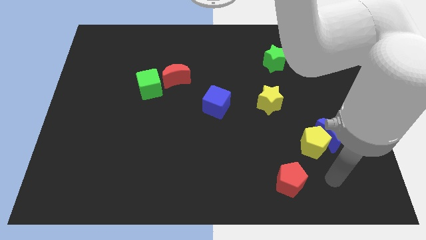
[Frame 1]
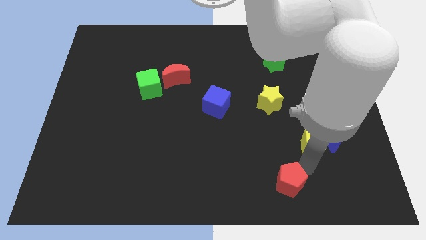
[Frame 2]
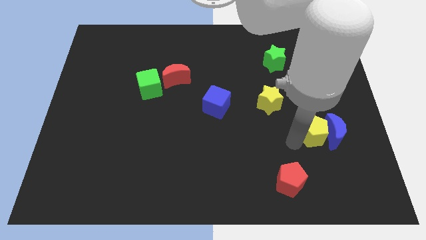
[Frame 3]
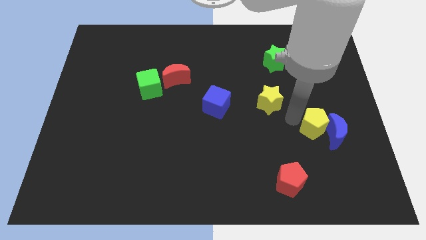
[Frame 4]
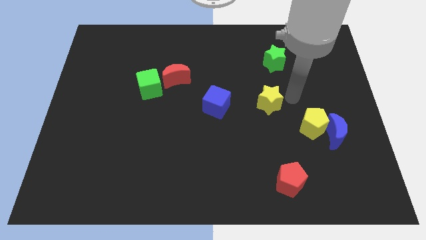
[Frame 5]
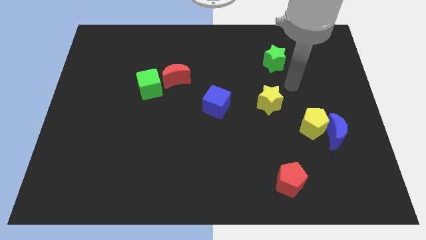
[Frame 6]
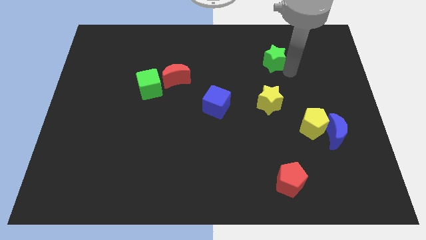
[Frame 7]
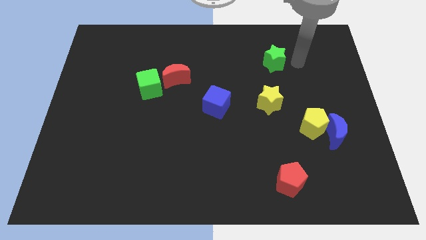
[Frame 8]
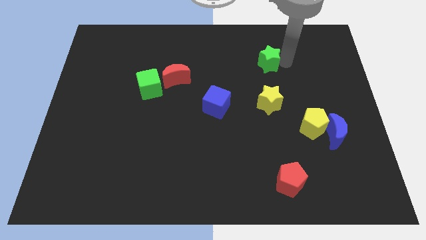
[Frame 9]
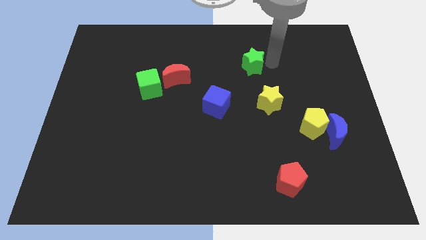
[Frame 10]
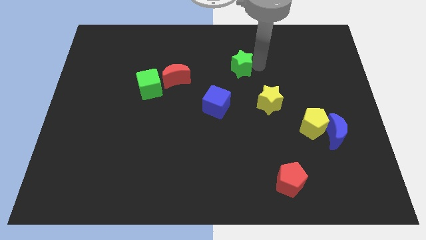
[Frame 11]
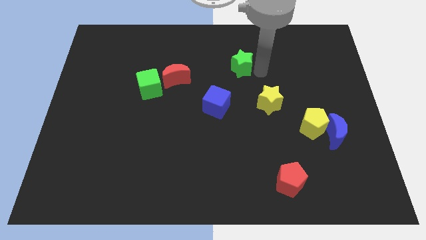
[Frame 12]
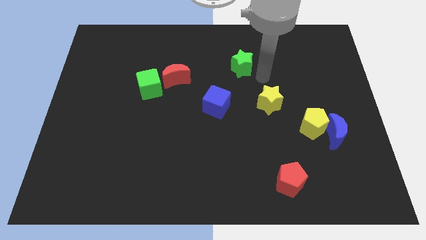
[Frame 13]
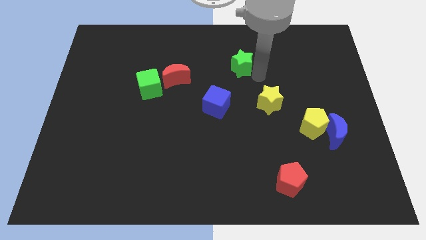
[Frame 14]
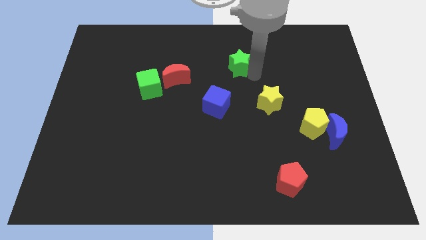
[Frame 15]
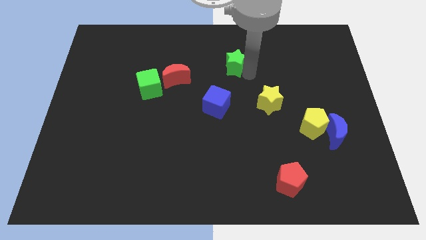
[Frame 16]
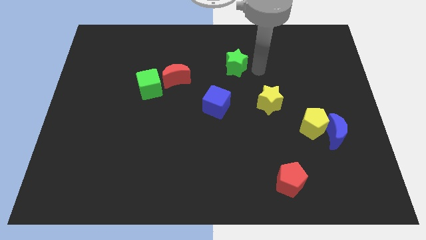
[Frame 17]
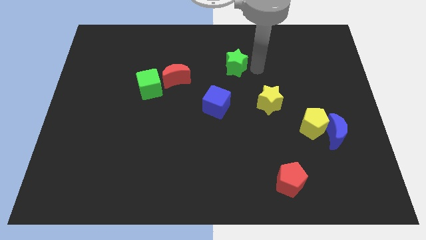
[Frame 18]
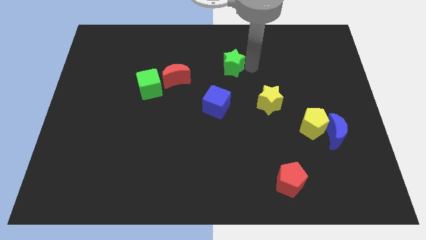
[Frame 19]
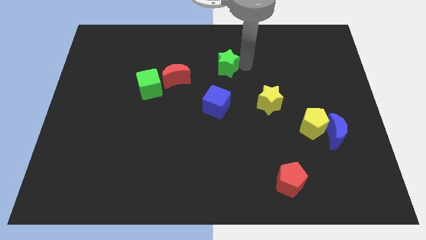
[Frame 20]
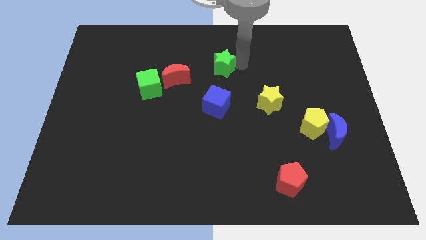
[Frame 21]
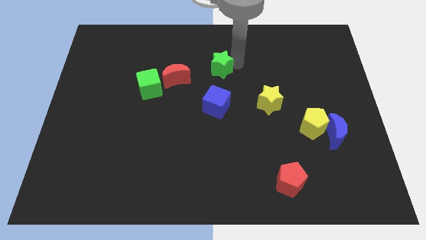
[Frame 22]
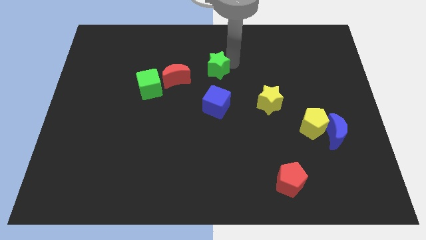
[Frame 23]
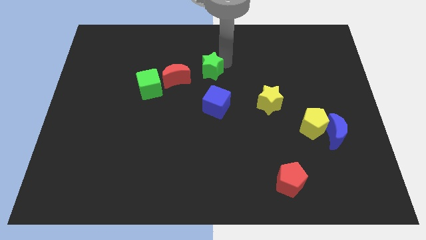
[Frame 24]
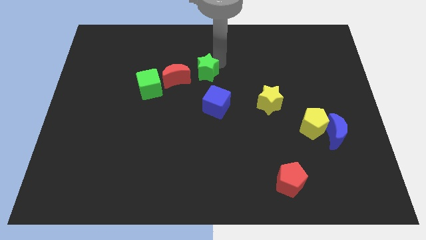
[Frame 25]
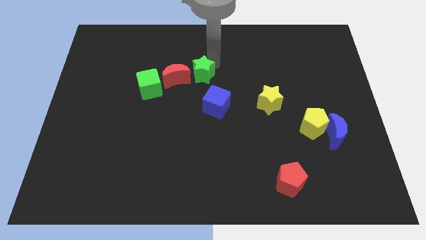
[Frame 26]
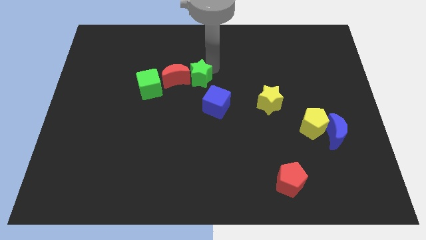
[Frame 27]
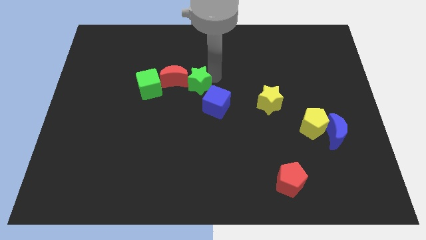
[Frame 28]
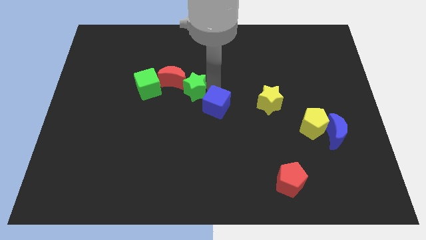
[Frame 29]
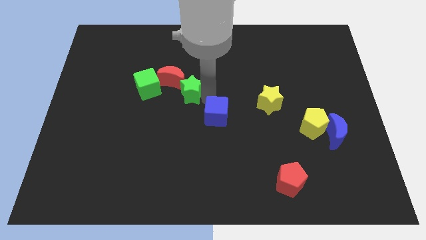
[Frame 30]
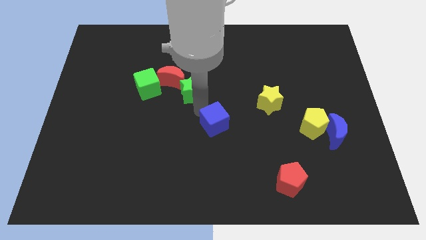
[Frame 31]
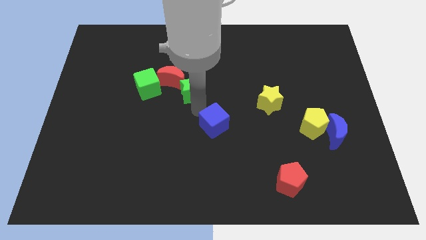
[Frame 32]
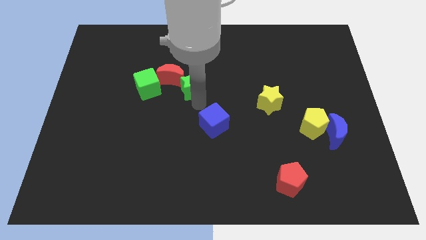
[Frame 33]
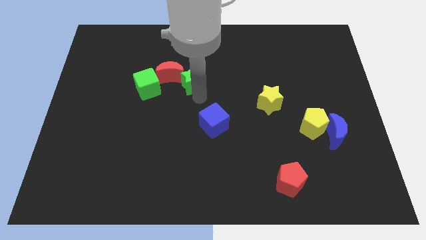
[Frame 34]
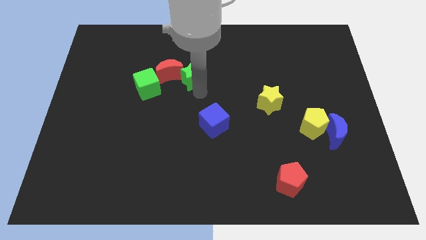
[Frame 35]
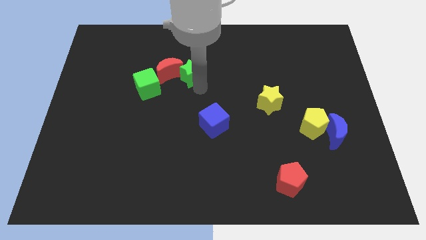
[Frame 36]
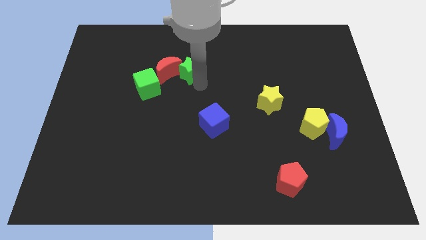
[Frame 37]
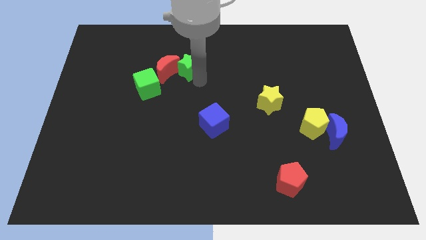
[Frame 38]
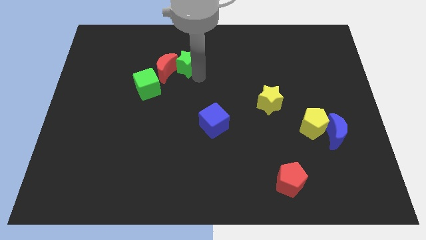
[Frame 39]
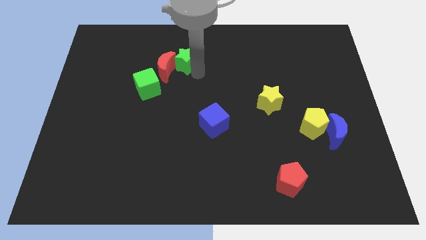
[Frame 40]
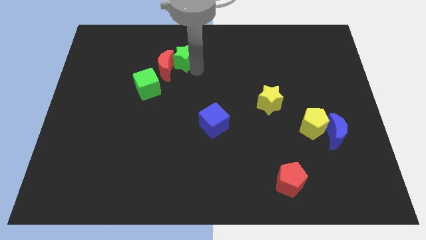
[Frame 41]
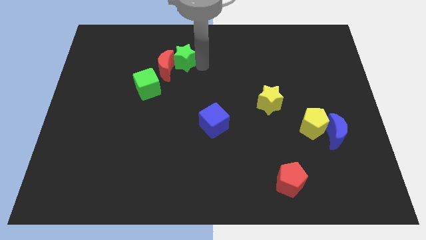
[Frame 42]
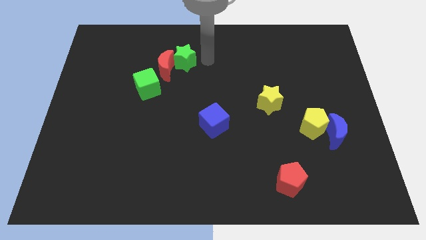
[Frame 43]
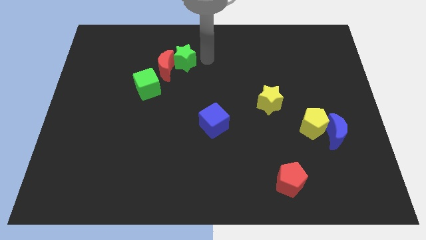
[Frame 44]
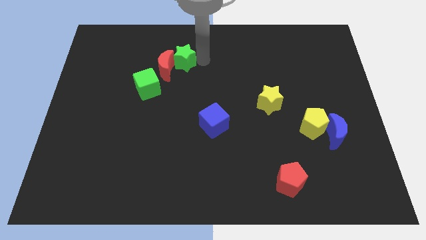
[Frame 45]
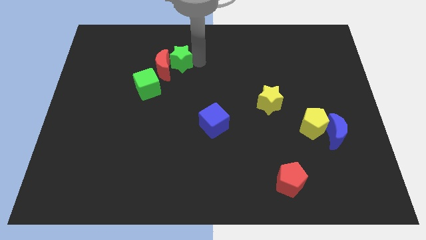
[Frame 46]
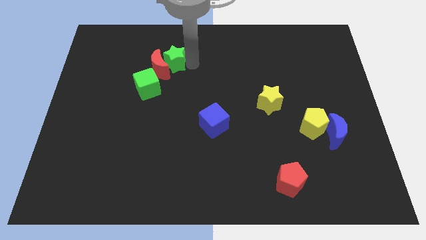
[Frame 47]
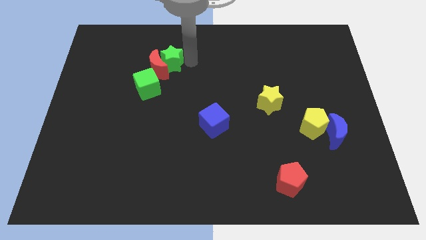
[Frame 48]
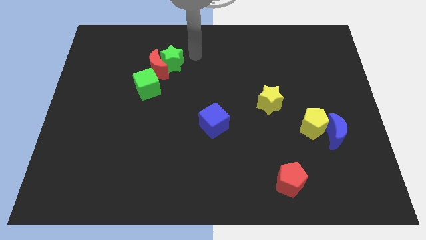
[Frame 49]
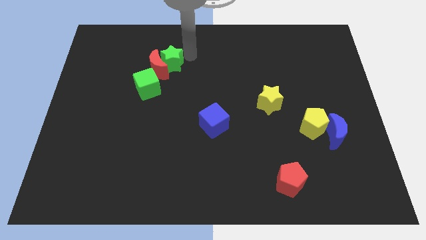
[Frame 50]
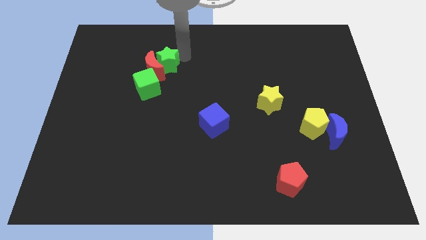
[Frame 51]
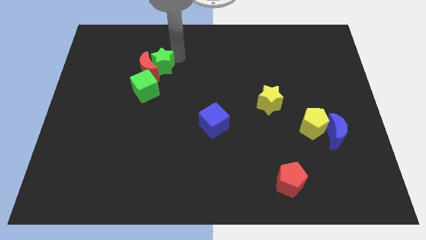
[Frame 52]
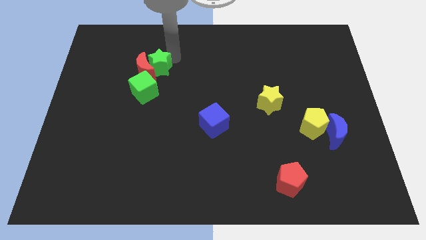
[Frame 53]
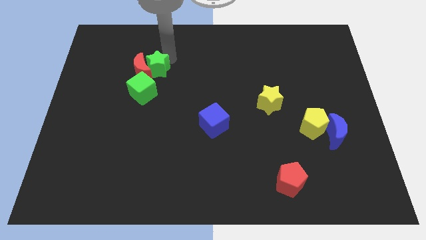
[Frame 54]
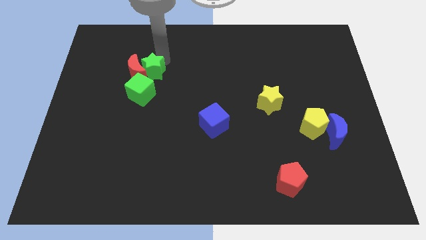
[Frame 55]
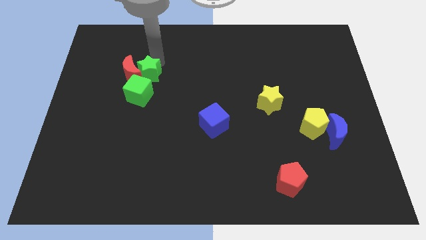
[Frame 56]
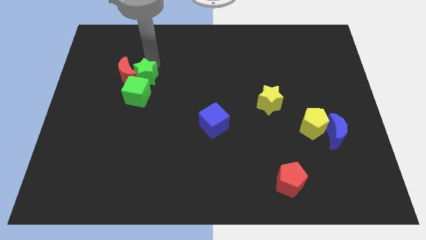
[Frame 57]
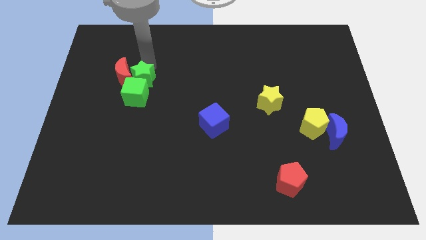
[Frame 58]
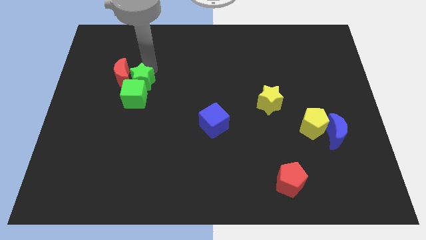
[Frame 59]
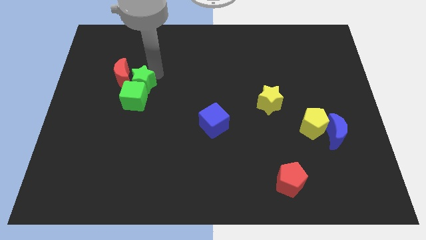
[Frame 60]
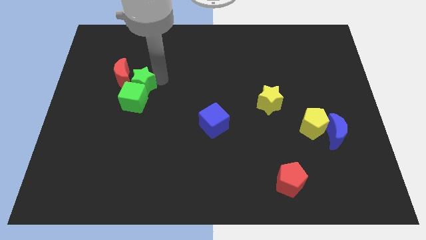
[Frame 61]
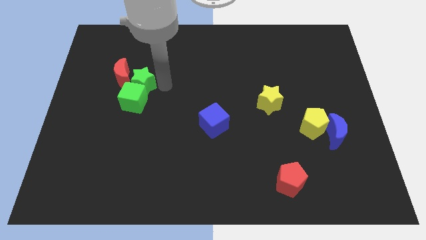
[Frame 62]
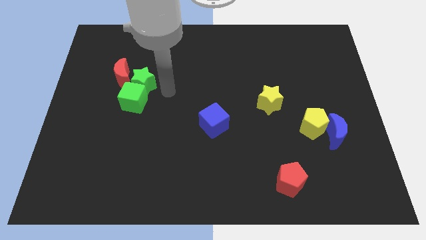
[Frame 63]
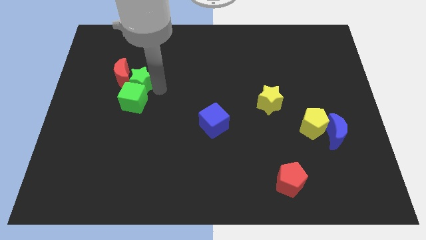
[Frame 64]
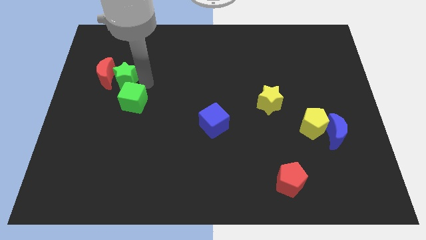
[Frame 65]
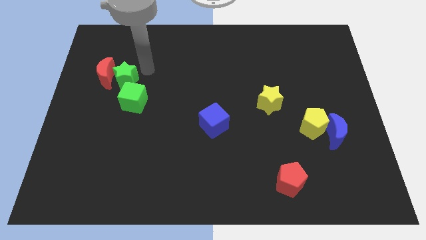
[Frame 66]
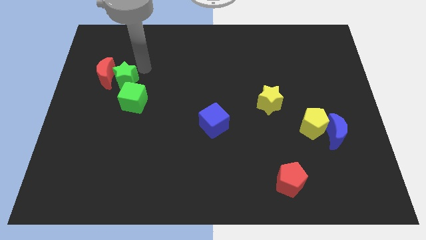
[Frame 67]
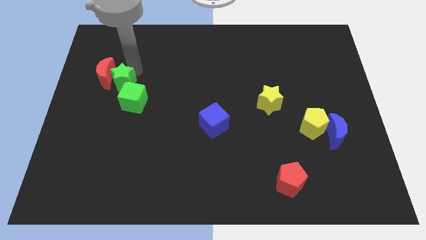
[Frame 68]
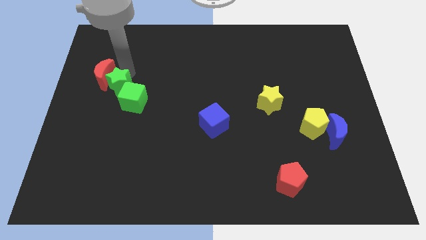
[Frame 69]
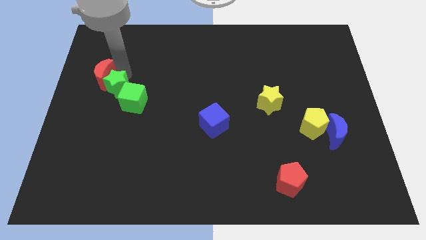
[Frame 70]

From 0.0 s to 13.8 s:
move the green star left of the green cube
